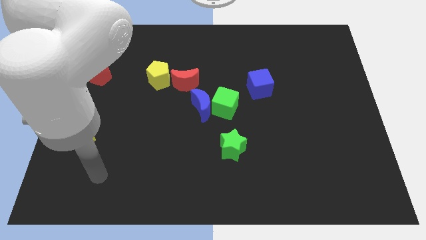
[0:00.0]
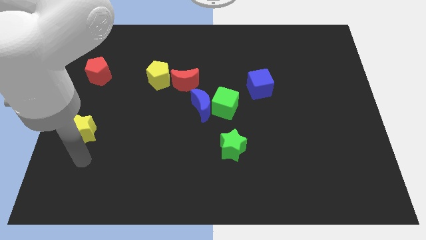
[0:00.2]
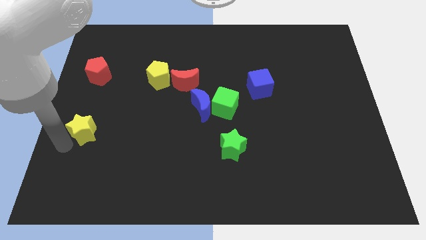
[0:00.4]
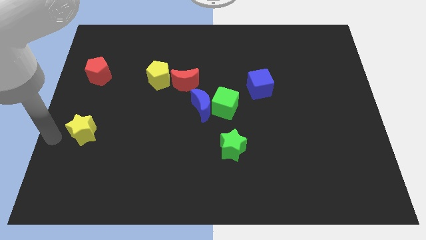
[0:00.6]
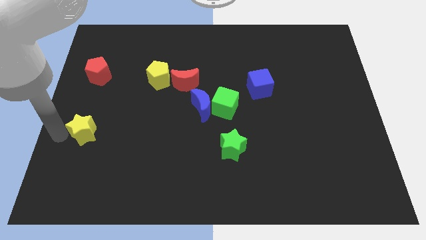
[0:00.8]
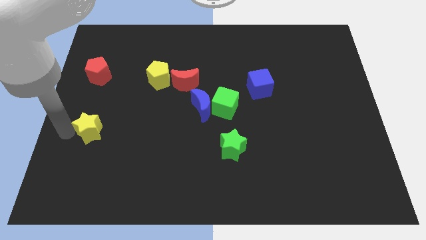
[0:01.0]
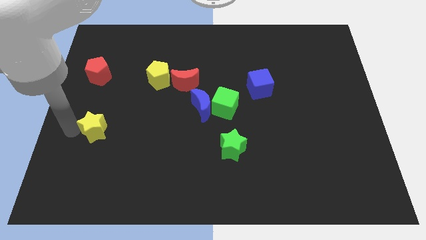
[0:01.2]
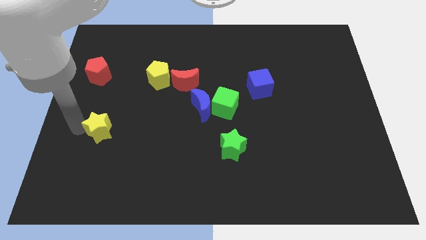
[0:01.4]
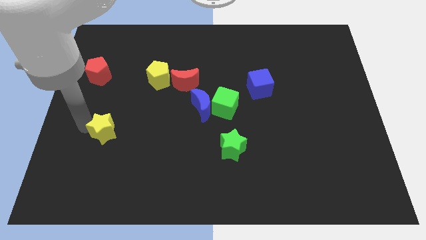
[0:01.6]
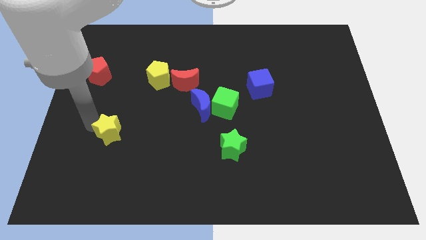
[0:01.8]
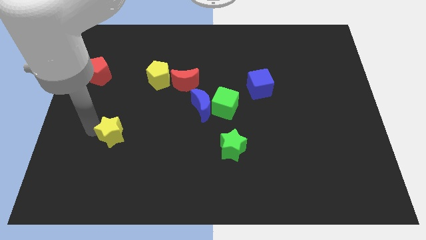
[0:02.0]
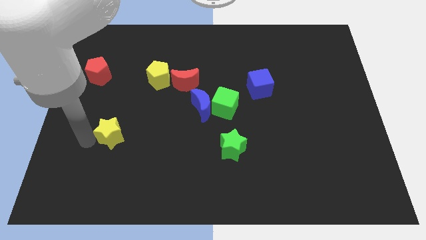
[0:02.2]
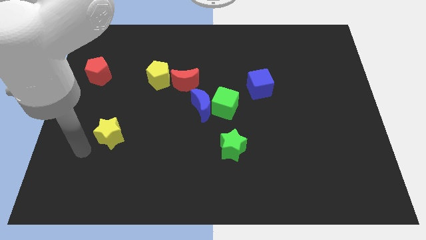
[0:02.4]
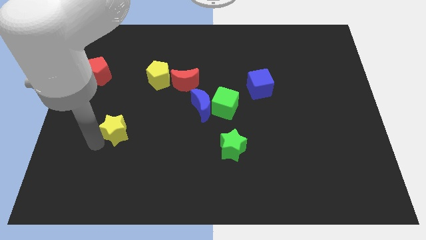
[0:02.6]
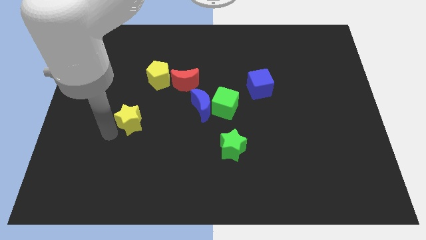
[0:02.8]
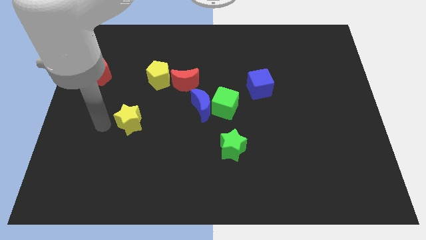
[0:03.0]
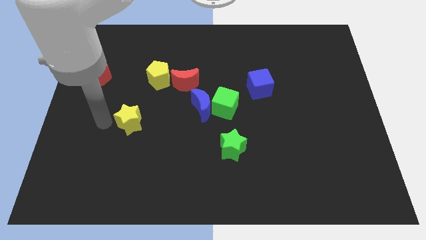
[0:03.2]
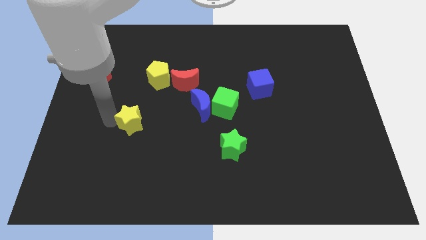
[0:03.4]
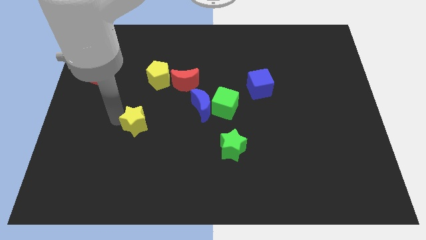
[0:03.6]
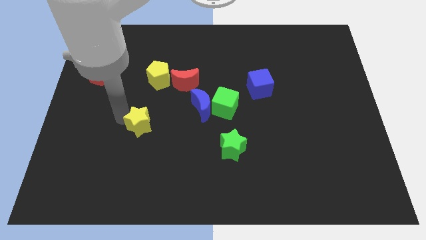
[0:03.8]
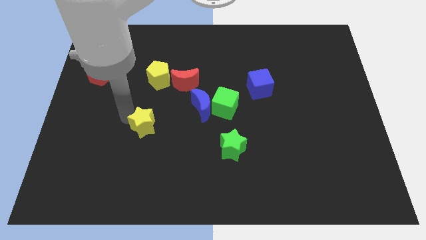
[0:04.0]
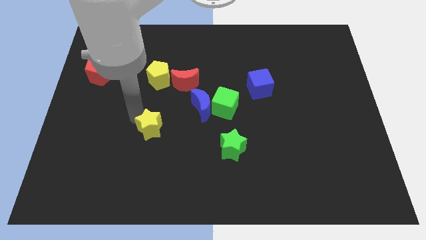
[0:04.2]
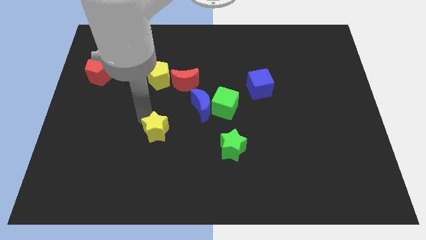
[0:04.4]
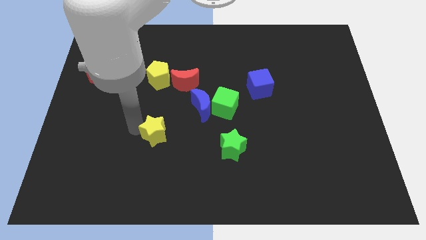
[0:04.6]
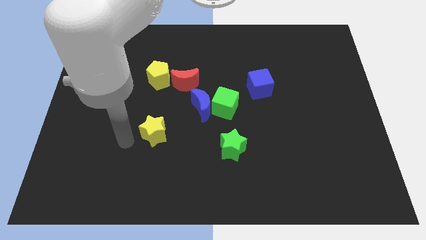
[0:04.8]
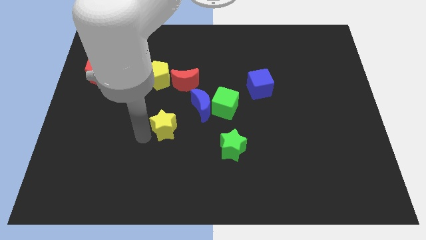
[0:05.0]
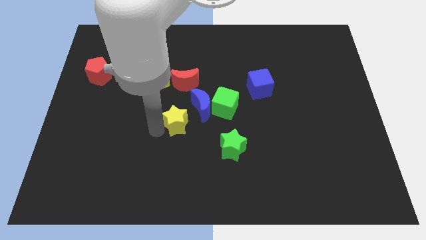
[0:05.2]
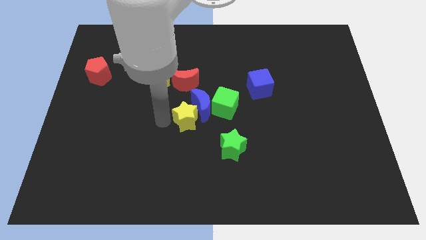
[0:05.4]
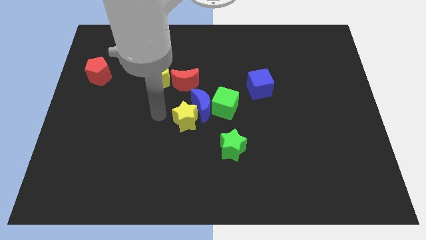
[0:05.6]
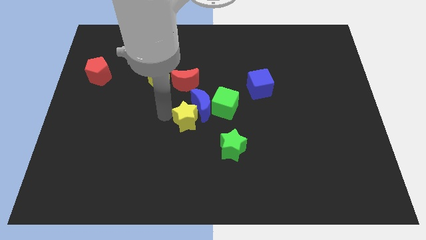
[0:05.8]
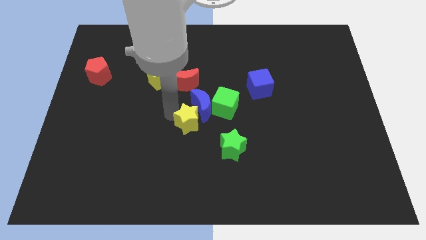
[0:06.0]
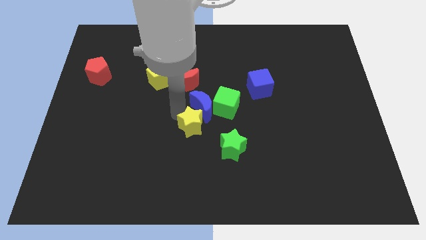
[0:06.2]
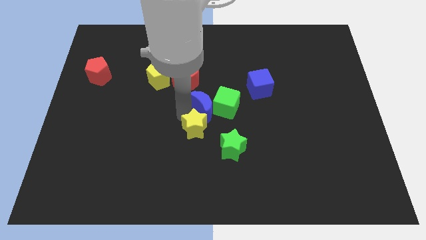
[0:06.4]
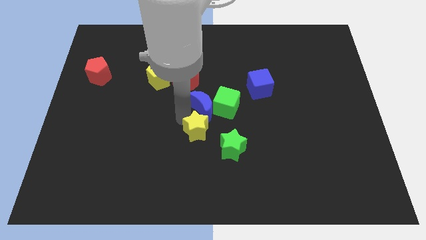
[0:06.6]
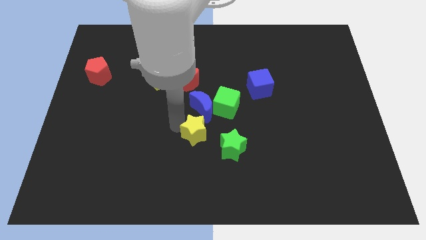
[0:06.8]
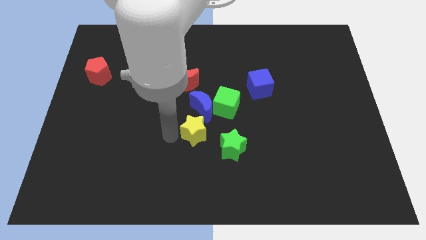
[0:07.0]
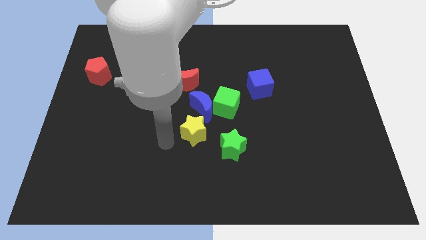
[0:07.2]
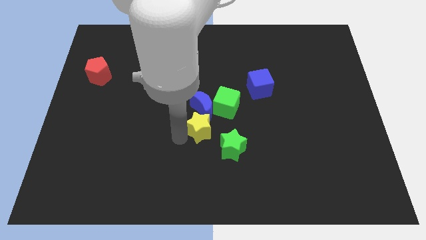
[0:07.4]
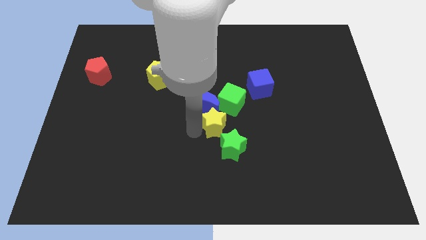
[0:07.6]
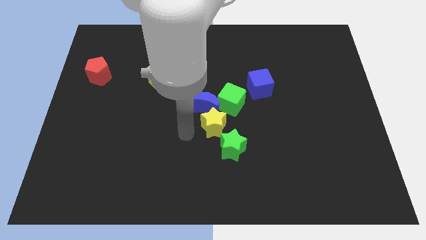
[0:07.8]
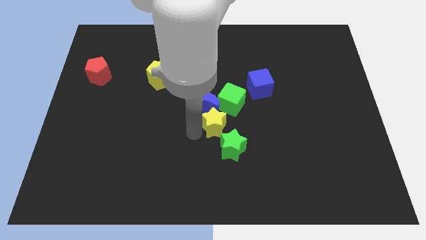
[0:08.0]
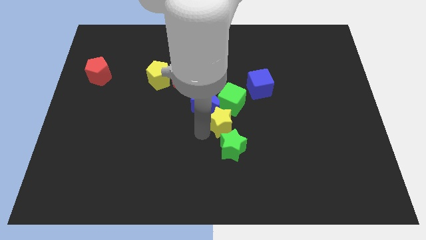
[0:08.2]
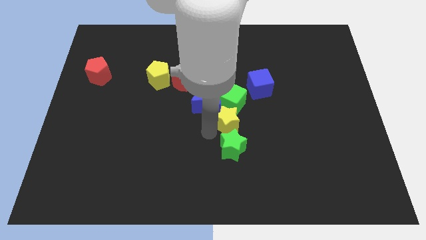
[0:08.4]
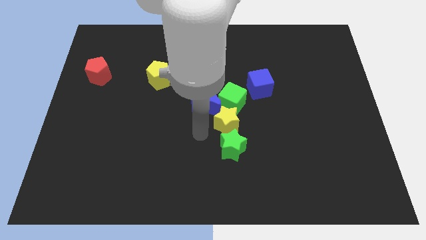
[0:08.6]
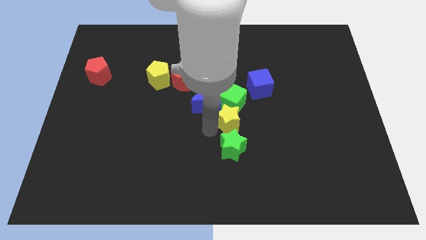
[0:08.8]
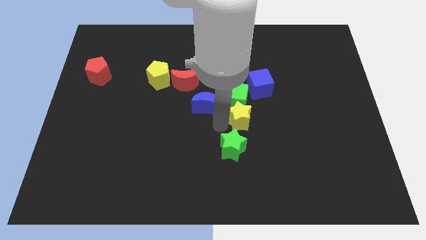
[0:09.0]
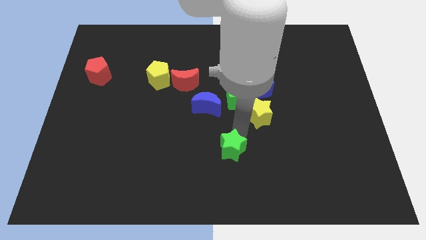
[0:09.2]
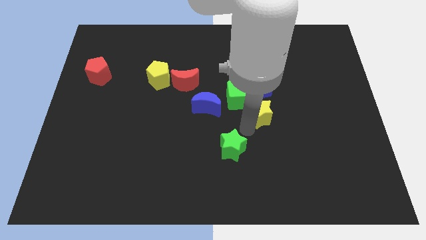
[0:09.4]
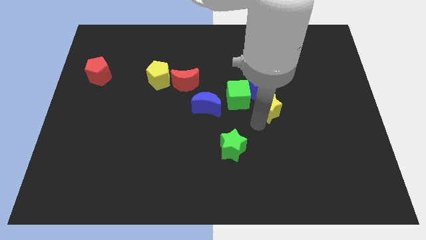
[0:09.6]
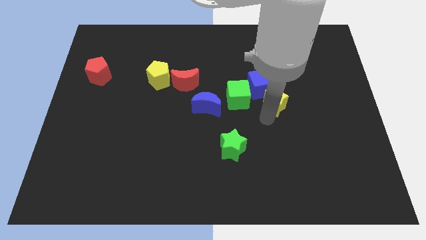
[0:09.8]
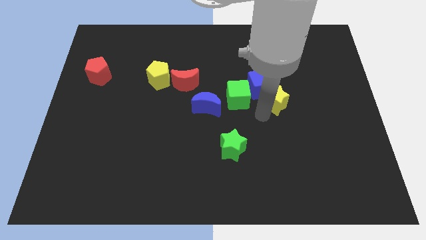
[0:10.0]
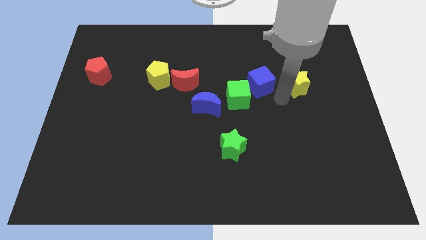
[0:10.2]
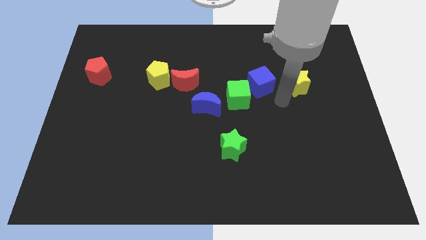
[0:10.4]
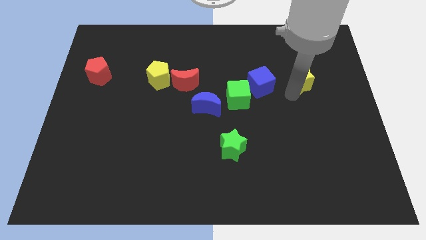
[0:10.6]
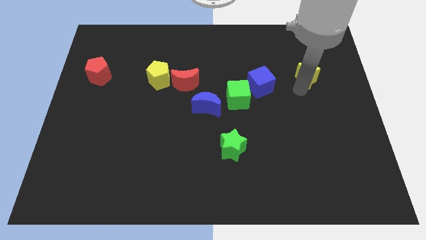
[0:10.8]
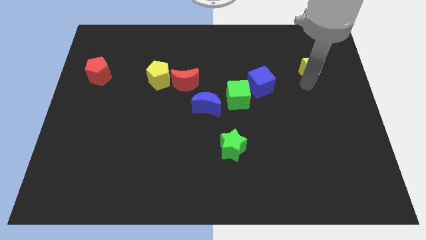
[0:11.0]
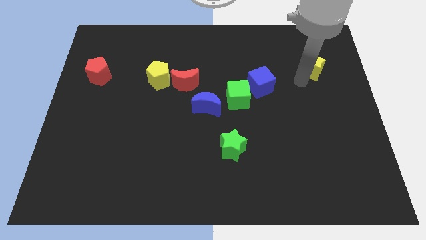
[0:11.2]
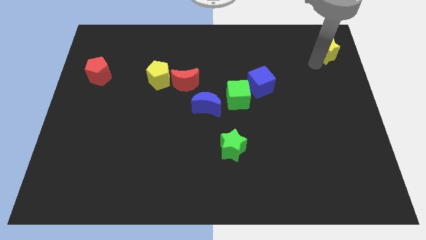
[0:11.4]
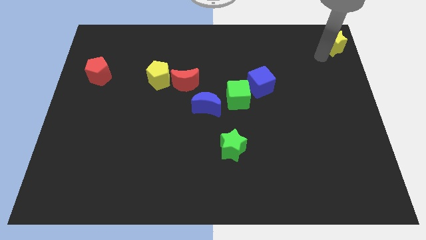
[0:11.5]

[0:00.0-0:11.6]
move the yellow star to the top right
